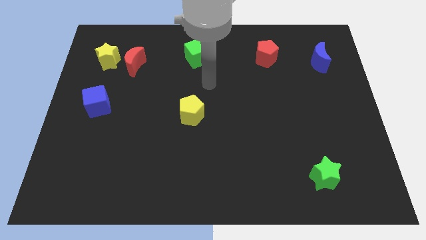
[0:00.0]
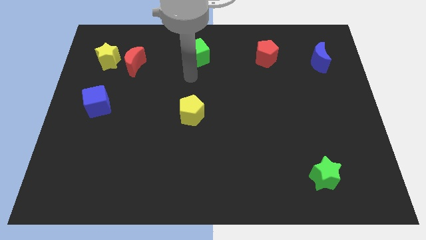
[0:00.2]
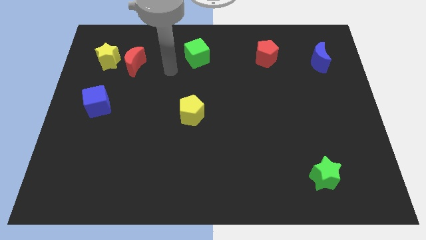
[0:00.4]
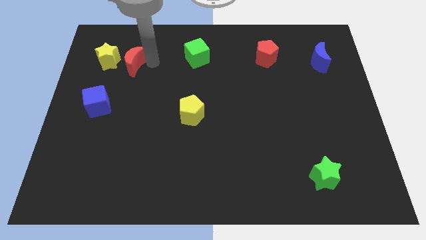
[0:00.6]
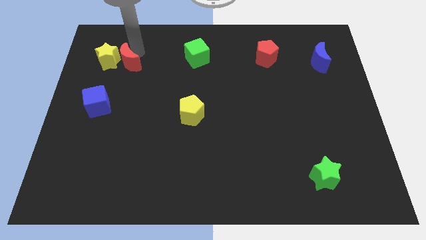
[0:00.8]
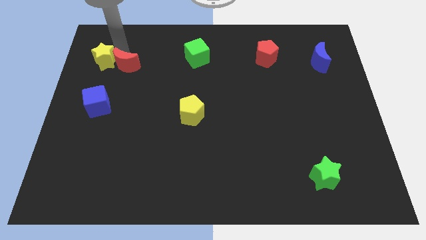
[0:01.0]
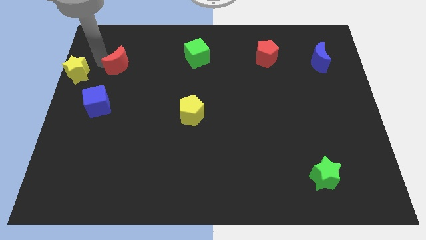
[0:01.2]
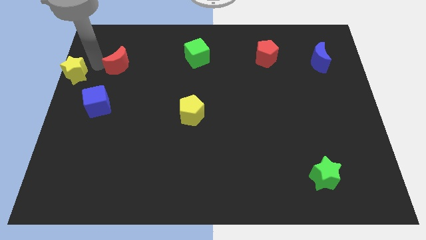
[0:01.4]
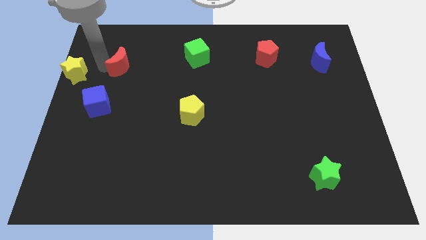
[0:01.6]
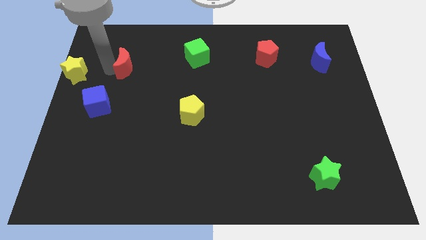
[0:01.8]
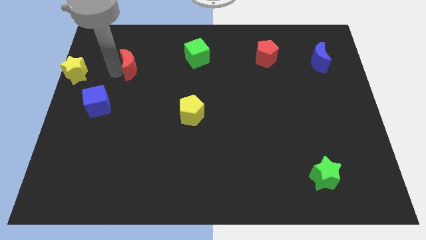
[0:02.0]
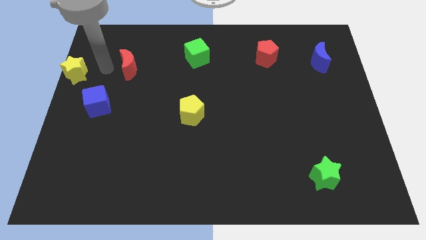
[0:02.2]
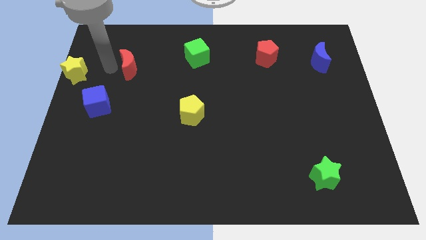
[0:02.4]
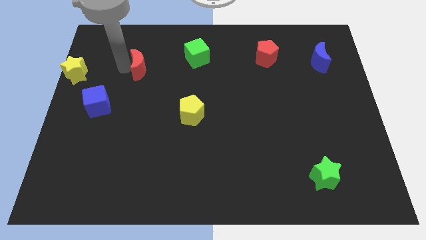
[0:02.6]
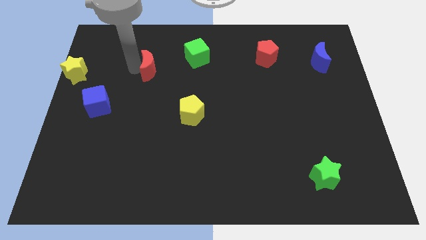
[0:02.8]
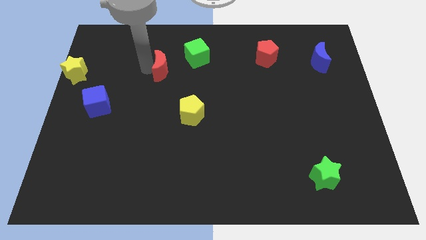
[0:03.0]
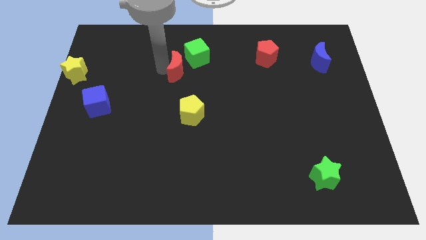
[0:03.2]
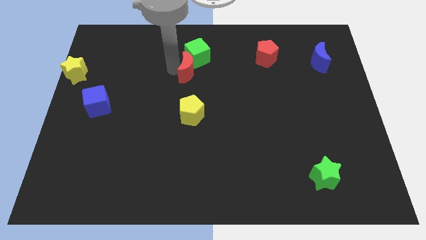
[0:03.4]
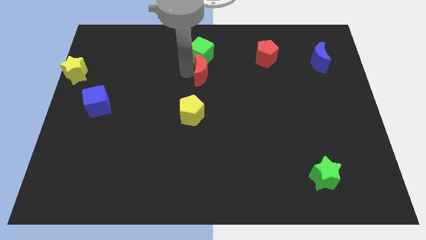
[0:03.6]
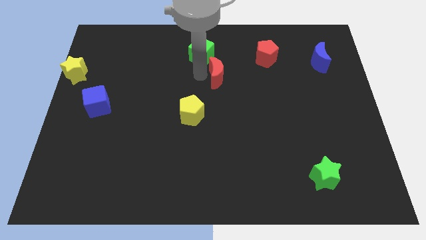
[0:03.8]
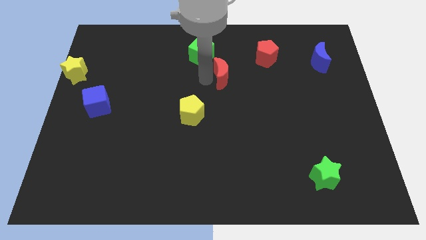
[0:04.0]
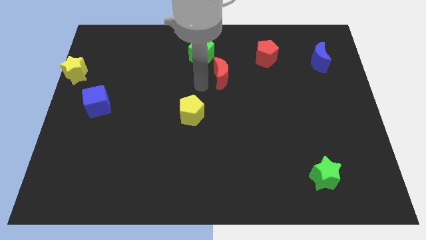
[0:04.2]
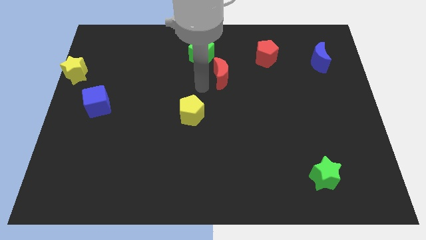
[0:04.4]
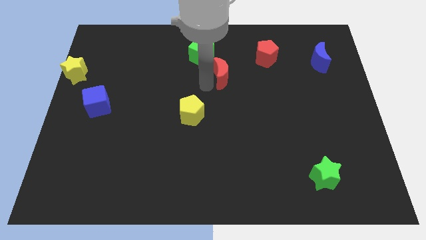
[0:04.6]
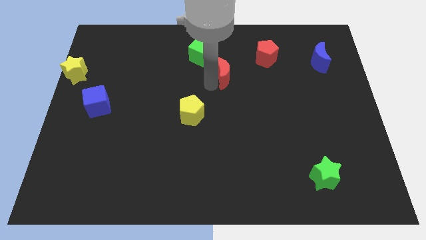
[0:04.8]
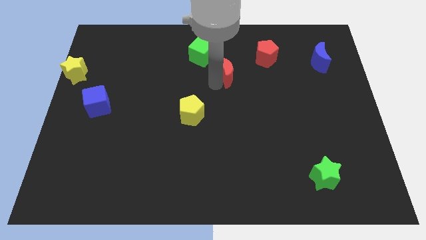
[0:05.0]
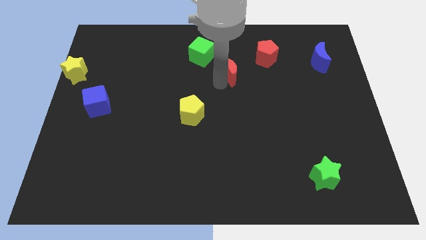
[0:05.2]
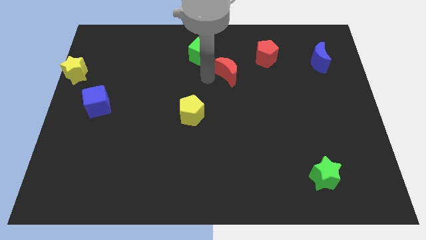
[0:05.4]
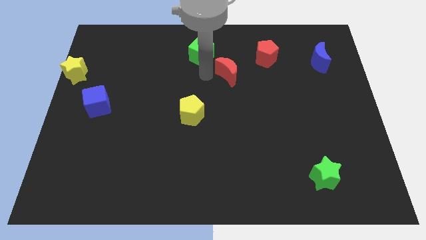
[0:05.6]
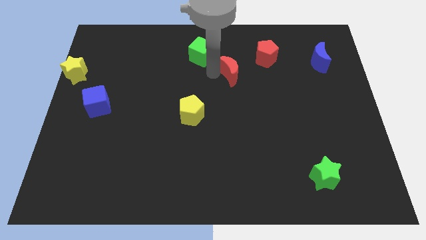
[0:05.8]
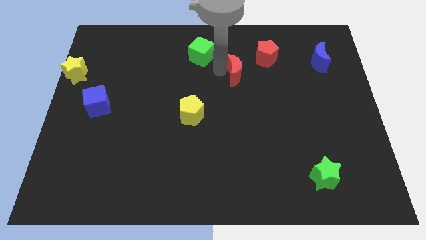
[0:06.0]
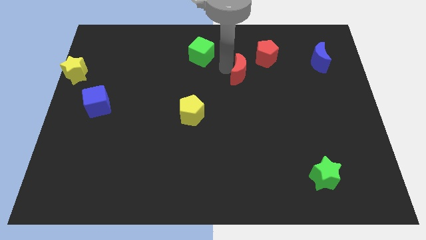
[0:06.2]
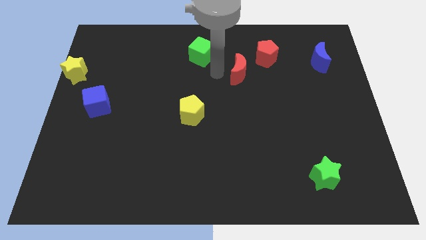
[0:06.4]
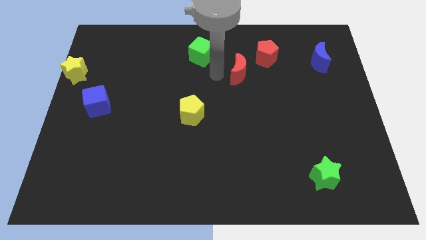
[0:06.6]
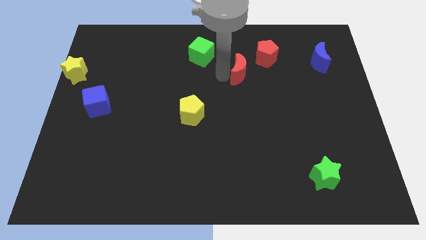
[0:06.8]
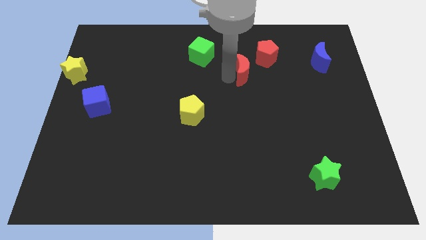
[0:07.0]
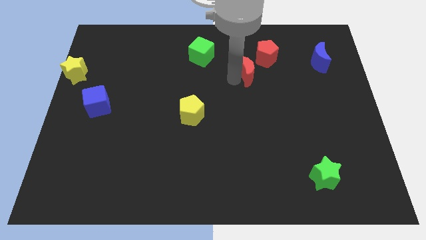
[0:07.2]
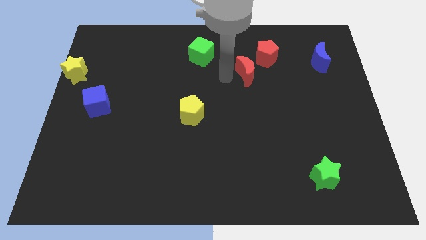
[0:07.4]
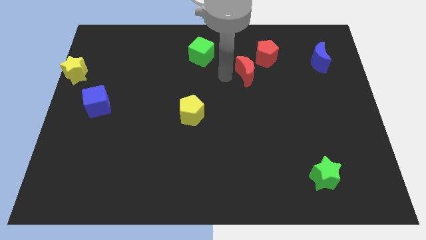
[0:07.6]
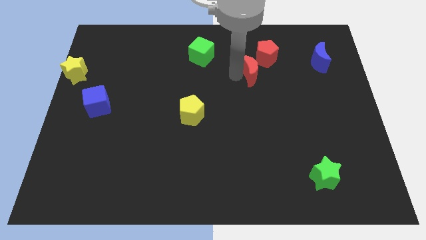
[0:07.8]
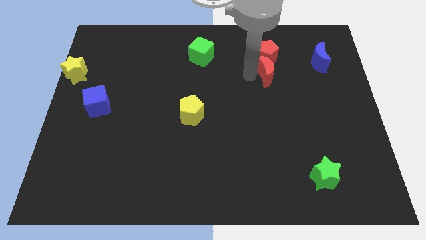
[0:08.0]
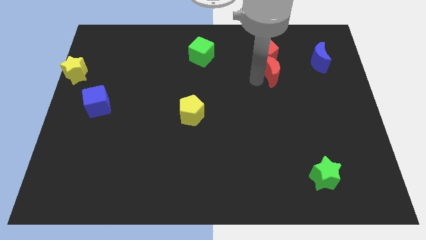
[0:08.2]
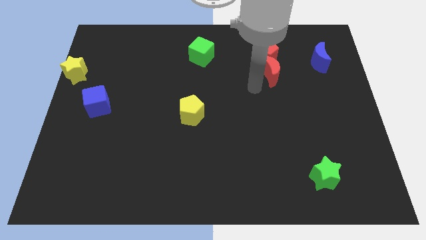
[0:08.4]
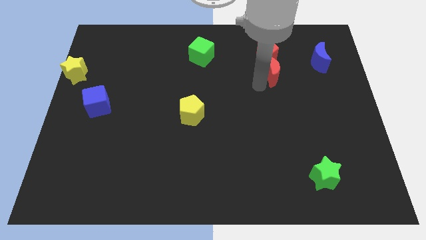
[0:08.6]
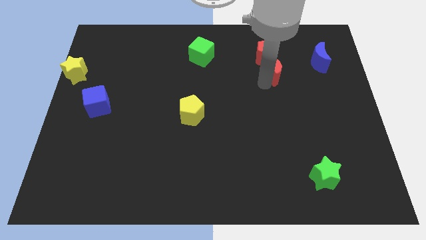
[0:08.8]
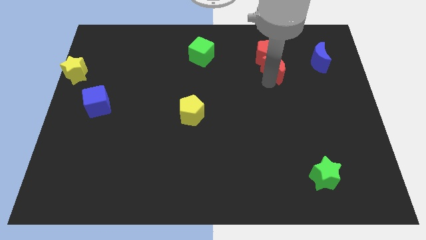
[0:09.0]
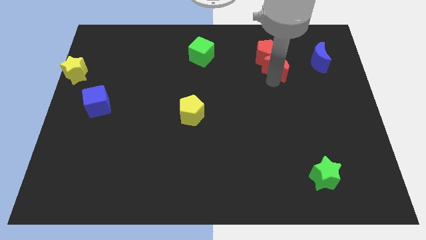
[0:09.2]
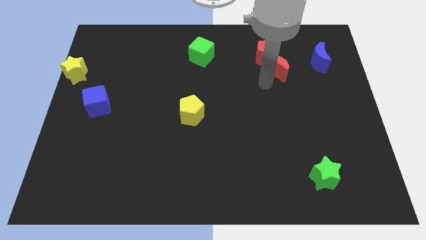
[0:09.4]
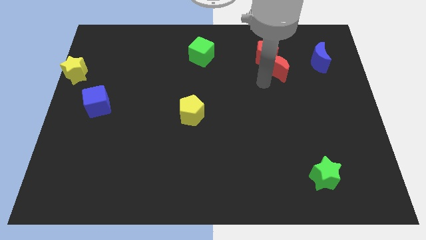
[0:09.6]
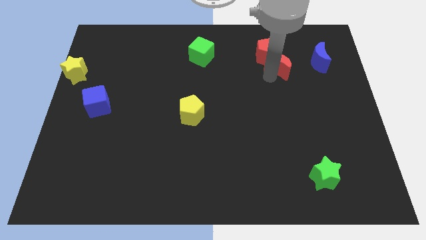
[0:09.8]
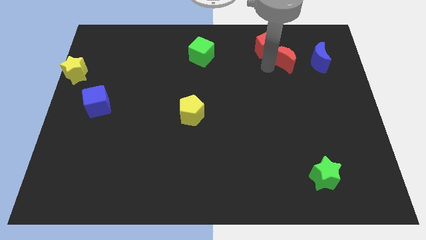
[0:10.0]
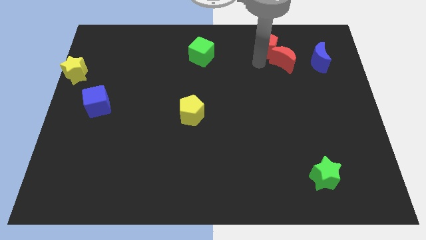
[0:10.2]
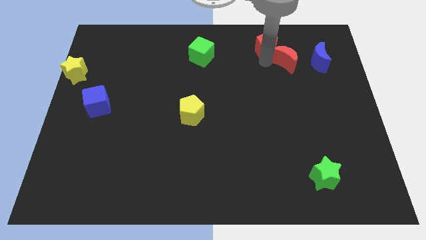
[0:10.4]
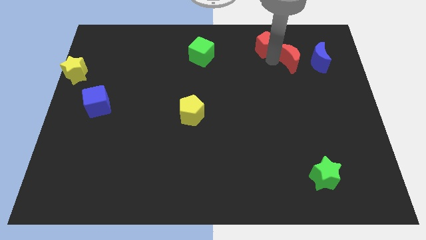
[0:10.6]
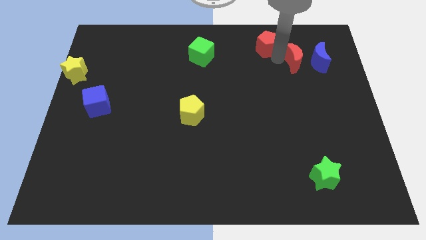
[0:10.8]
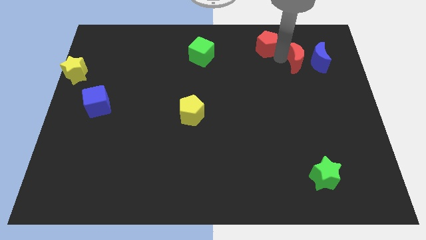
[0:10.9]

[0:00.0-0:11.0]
move the red moon towards the blue moon

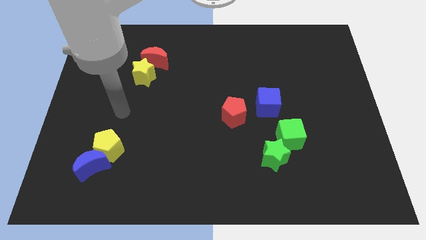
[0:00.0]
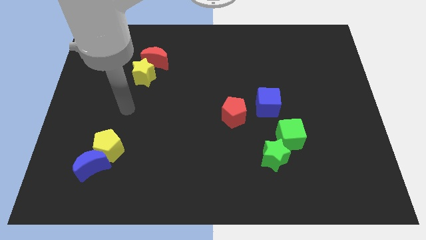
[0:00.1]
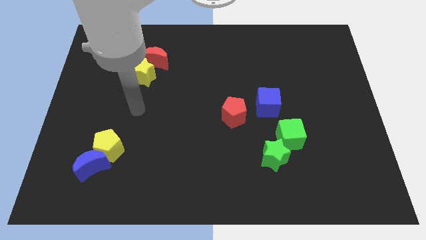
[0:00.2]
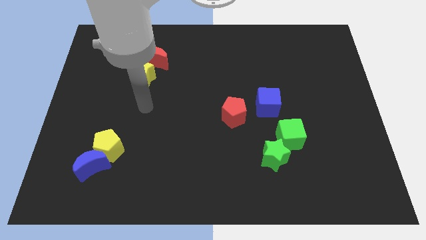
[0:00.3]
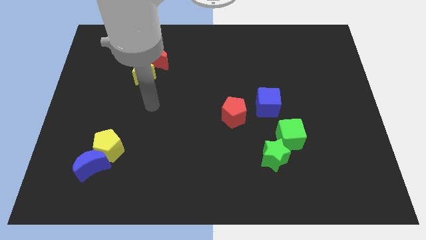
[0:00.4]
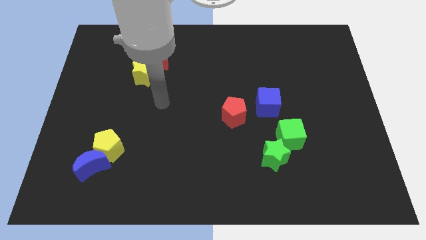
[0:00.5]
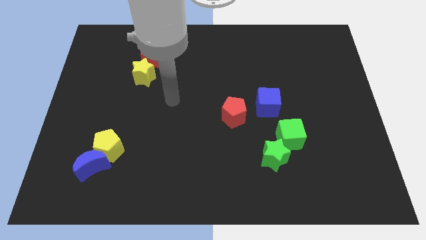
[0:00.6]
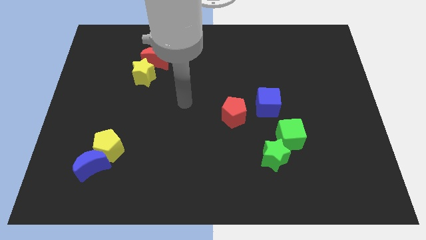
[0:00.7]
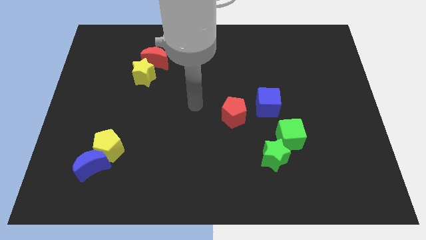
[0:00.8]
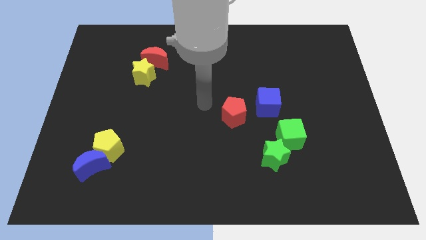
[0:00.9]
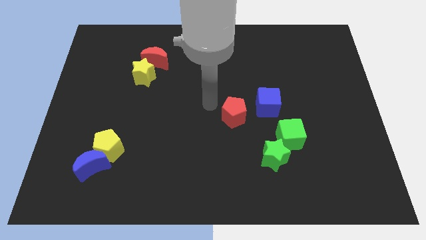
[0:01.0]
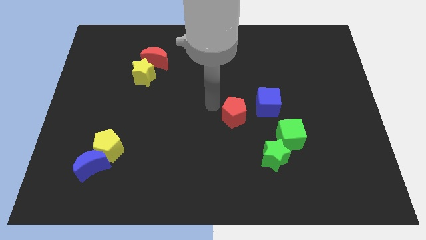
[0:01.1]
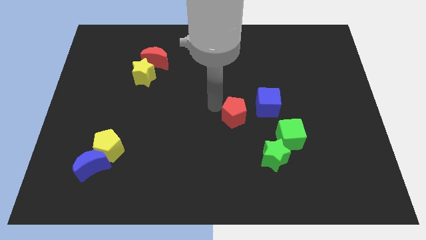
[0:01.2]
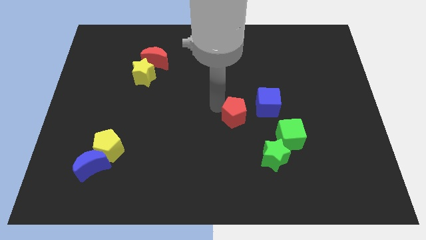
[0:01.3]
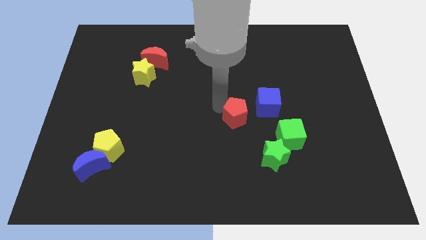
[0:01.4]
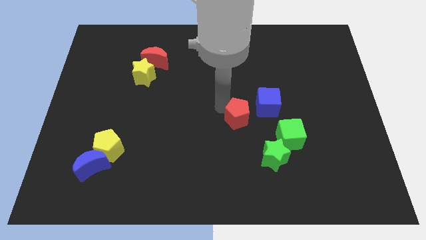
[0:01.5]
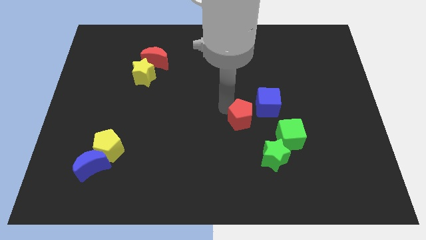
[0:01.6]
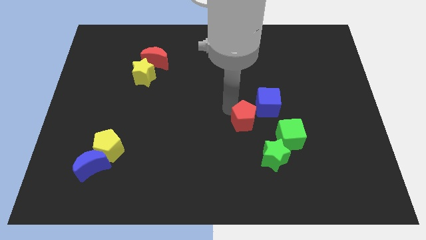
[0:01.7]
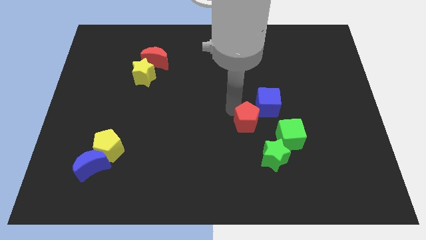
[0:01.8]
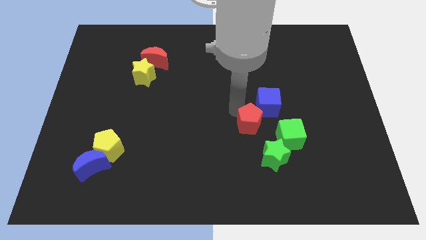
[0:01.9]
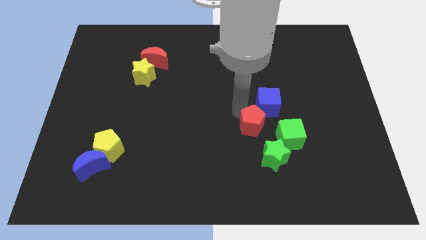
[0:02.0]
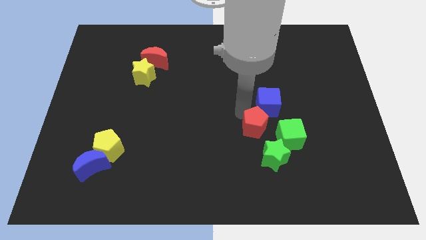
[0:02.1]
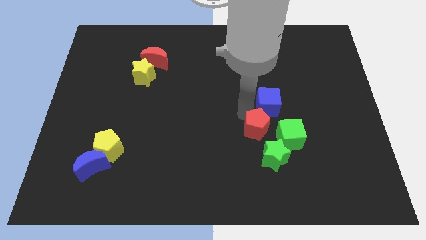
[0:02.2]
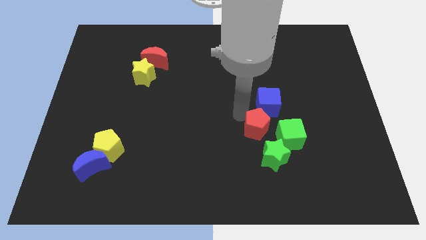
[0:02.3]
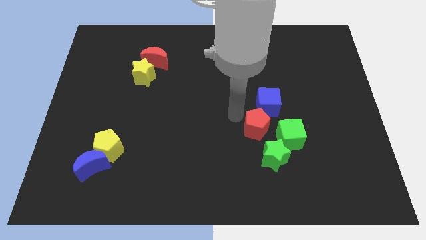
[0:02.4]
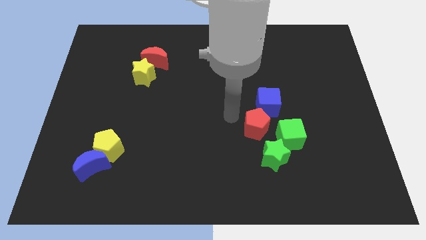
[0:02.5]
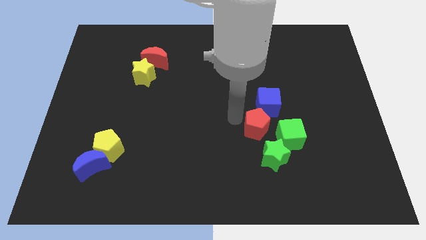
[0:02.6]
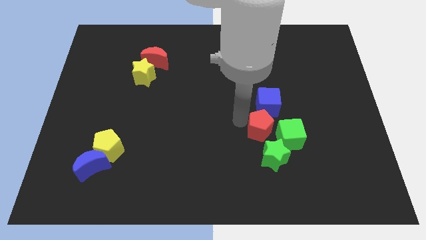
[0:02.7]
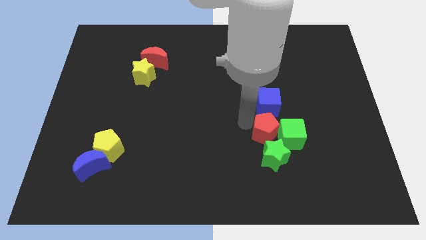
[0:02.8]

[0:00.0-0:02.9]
slide the red pentagon next to the green cube
